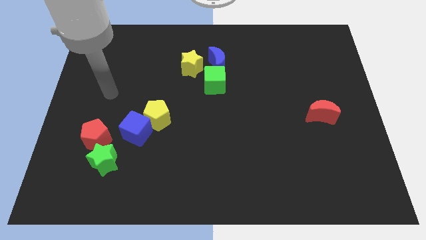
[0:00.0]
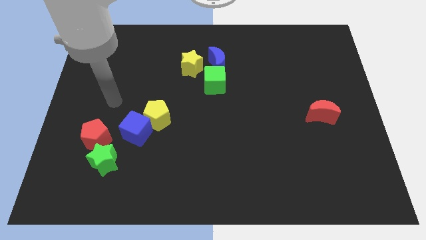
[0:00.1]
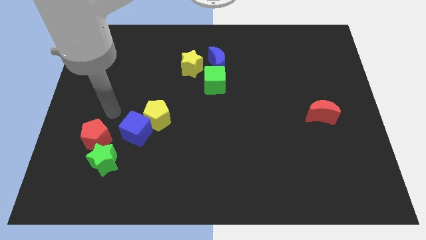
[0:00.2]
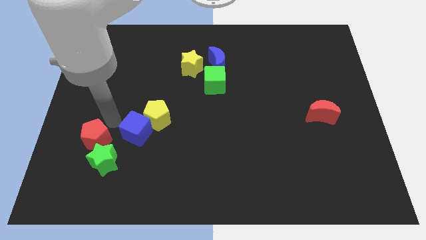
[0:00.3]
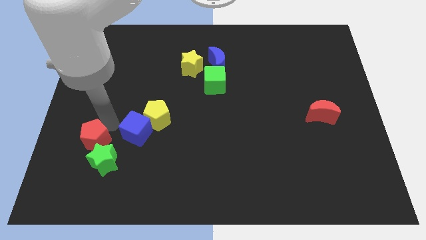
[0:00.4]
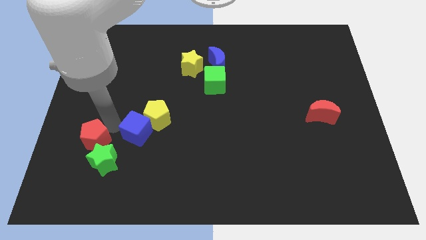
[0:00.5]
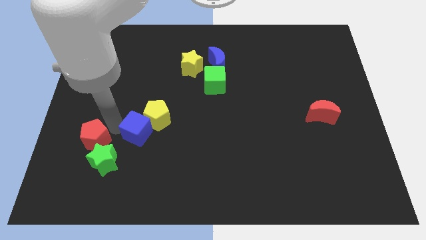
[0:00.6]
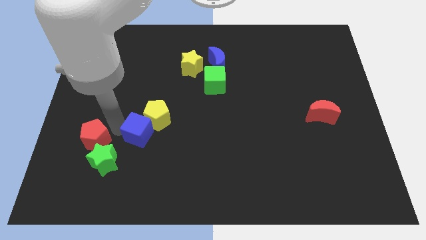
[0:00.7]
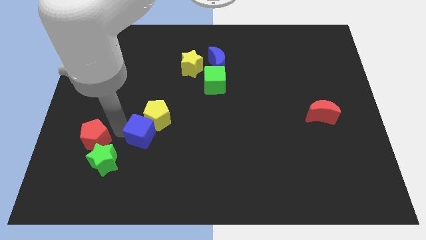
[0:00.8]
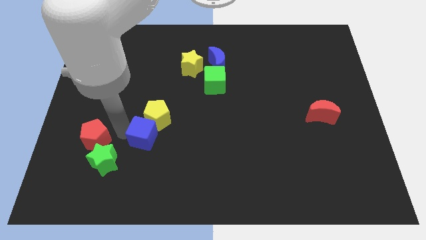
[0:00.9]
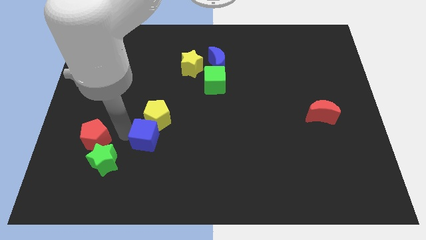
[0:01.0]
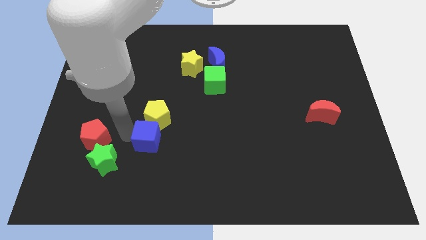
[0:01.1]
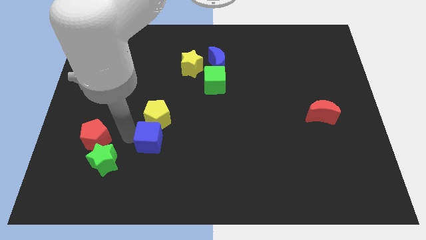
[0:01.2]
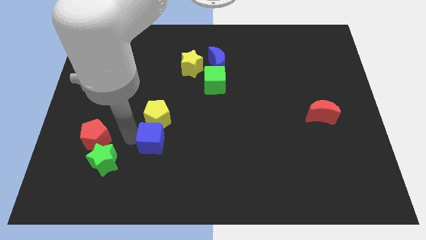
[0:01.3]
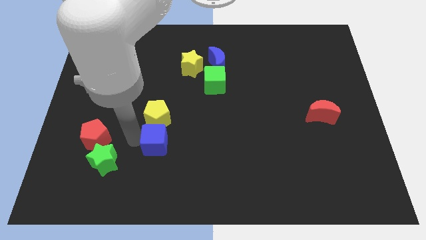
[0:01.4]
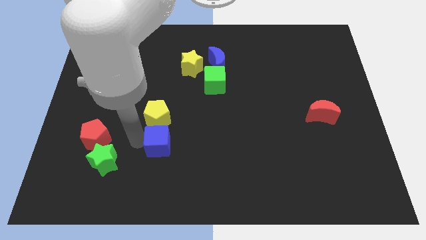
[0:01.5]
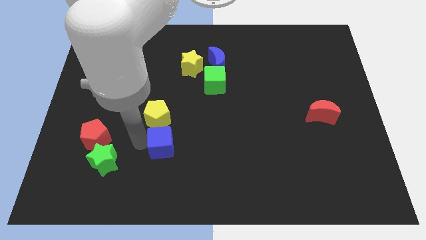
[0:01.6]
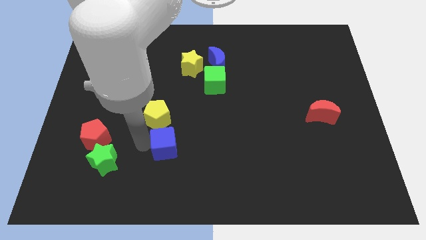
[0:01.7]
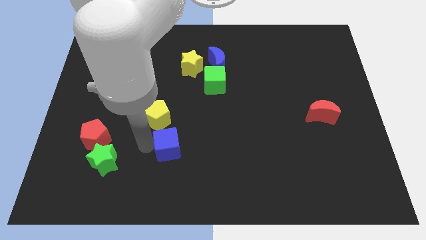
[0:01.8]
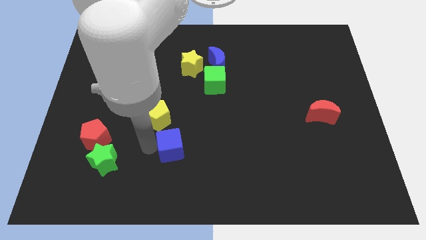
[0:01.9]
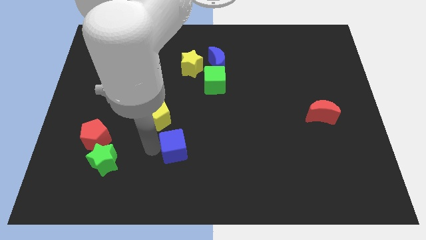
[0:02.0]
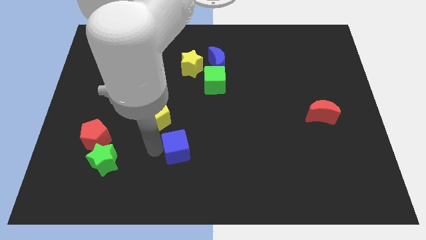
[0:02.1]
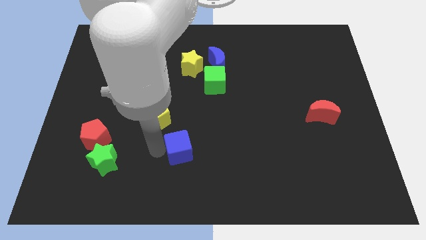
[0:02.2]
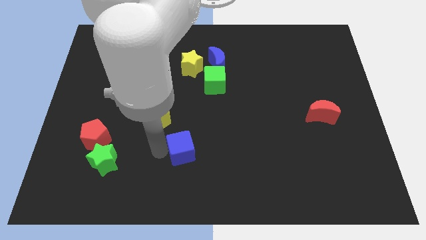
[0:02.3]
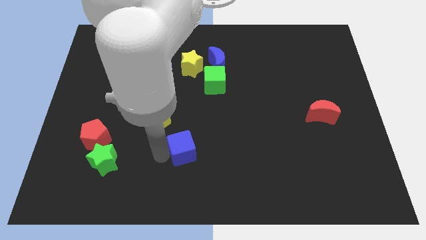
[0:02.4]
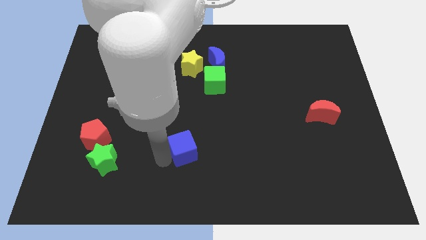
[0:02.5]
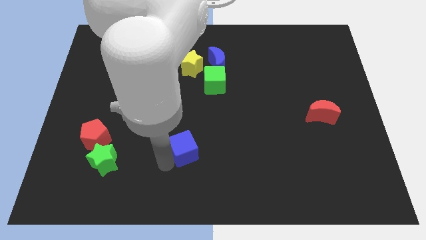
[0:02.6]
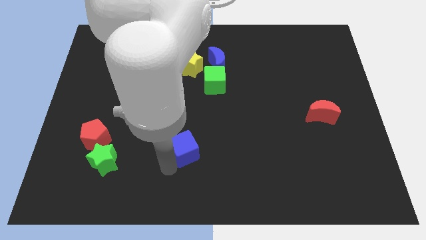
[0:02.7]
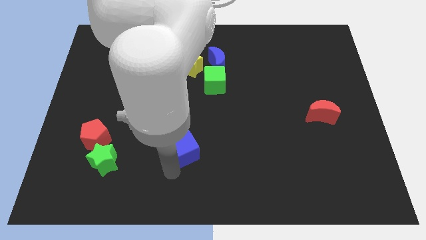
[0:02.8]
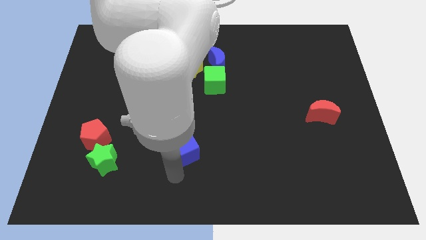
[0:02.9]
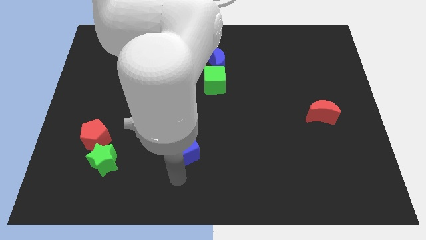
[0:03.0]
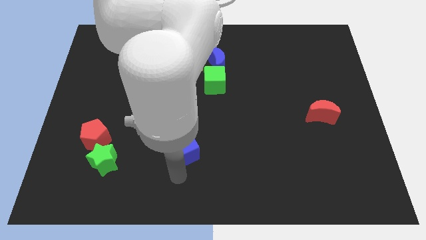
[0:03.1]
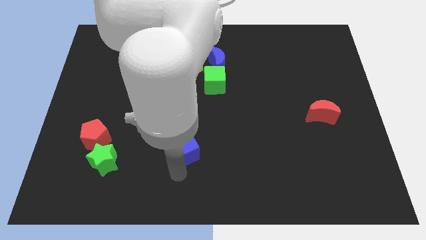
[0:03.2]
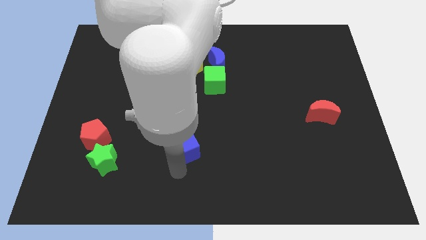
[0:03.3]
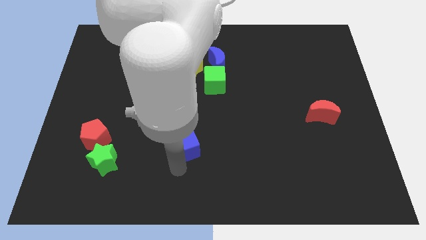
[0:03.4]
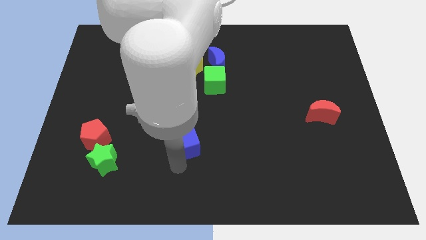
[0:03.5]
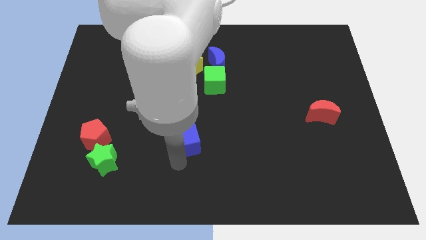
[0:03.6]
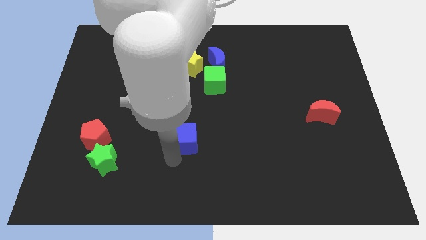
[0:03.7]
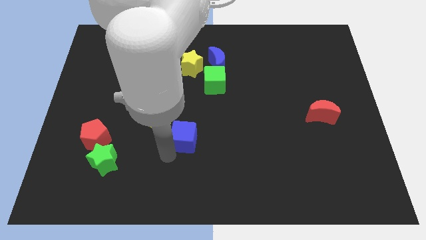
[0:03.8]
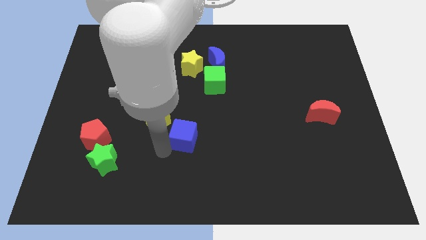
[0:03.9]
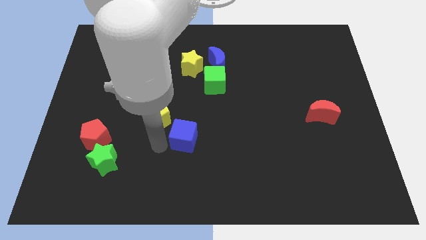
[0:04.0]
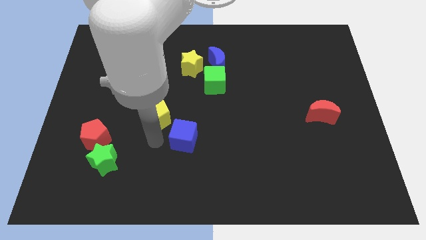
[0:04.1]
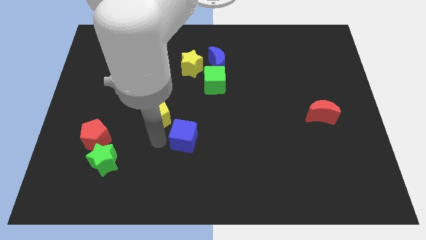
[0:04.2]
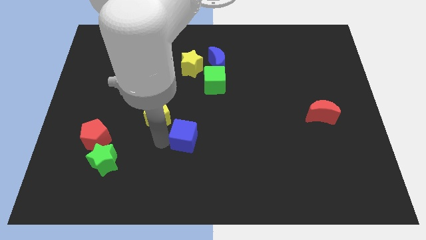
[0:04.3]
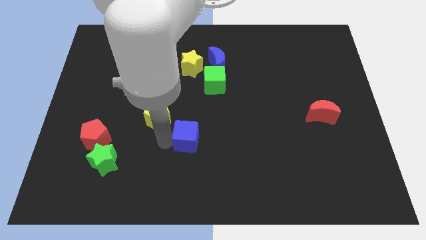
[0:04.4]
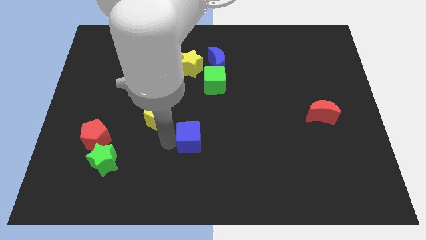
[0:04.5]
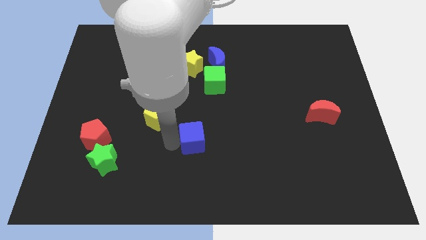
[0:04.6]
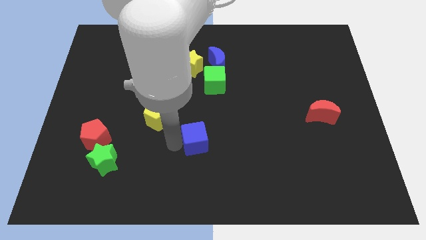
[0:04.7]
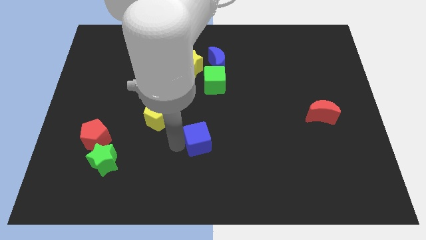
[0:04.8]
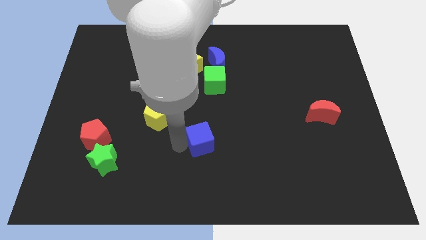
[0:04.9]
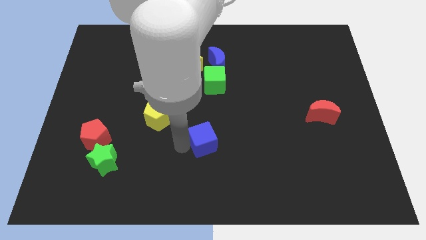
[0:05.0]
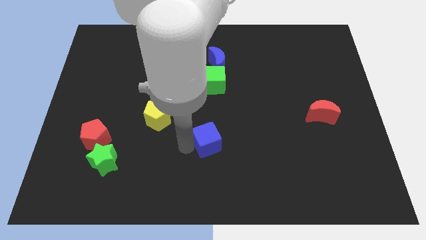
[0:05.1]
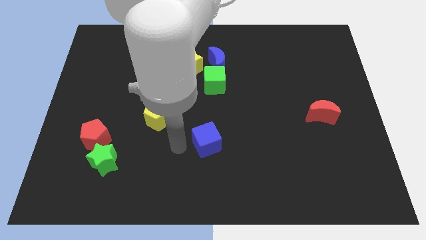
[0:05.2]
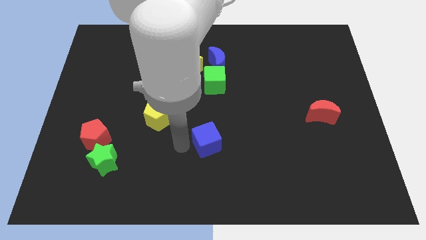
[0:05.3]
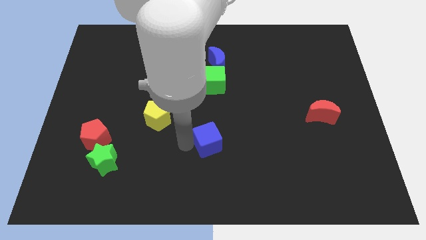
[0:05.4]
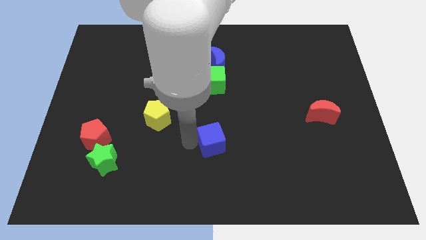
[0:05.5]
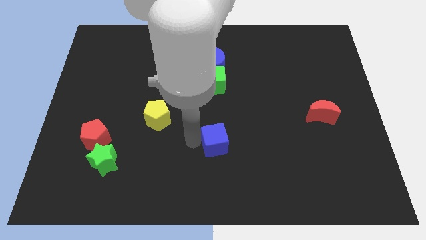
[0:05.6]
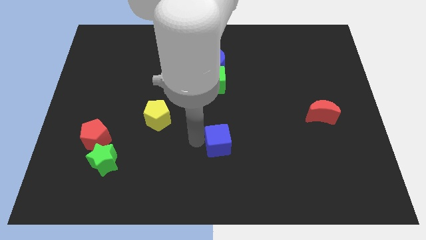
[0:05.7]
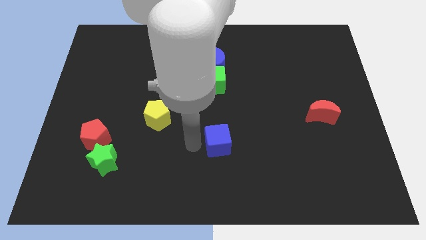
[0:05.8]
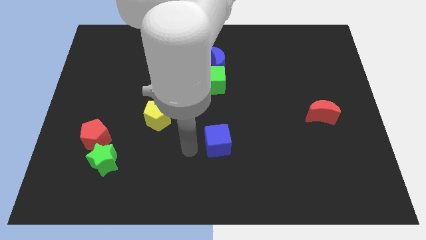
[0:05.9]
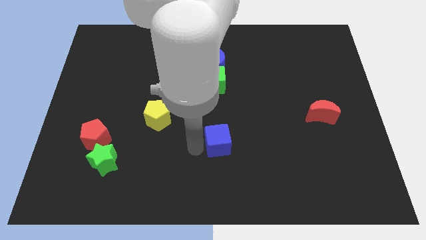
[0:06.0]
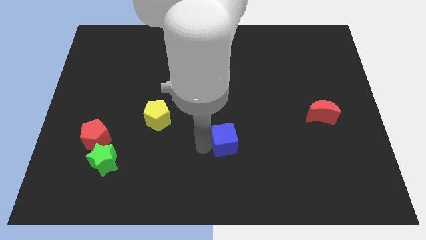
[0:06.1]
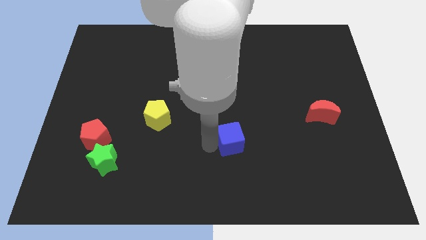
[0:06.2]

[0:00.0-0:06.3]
slide the blue cube right

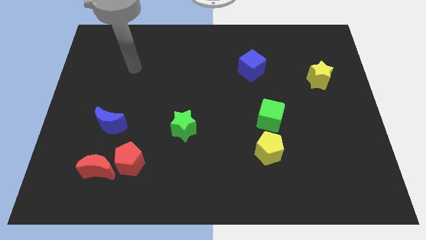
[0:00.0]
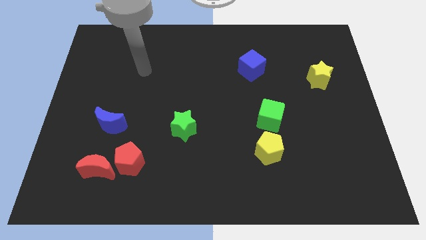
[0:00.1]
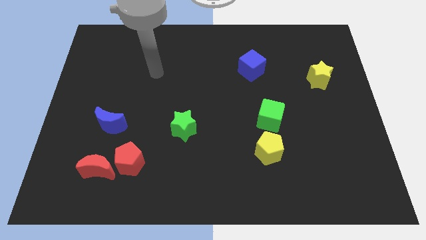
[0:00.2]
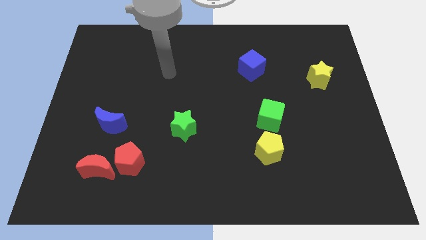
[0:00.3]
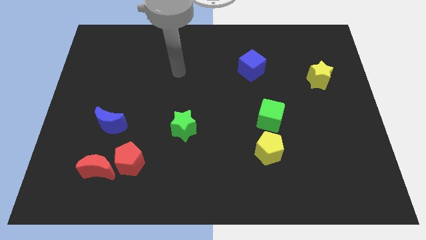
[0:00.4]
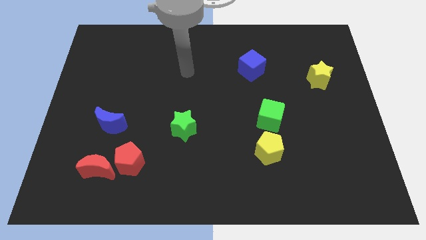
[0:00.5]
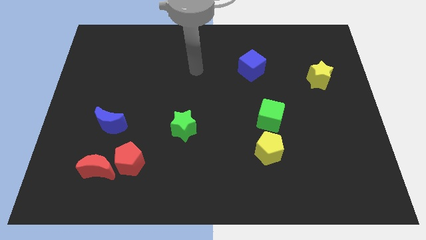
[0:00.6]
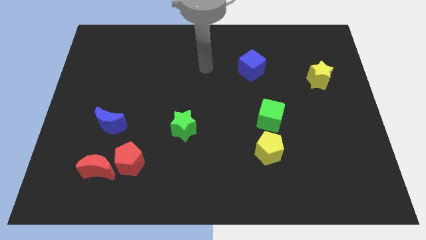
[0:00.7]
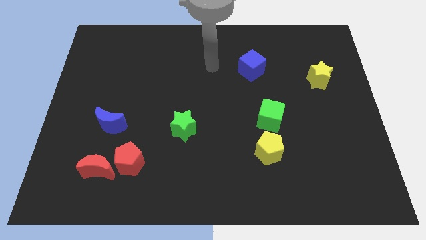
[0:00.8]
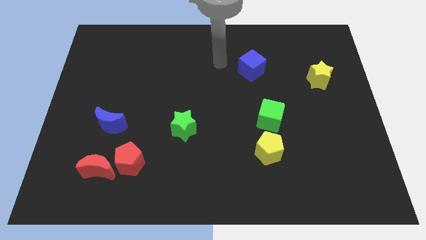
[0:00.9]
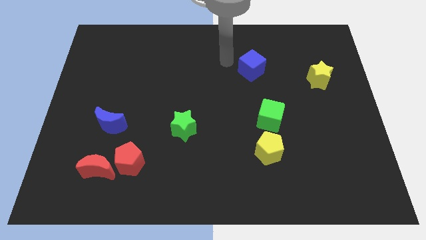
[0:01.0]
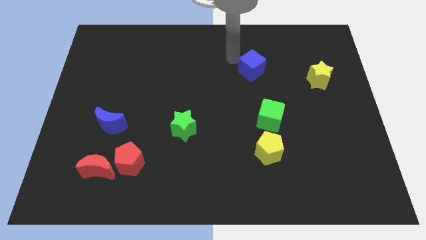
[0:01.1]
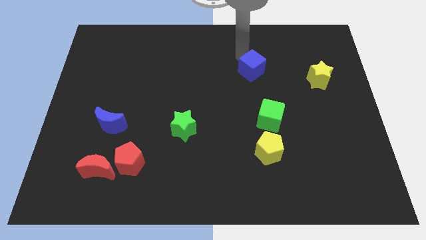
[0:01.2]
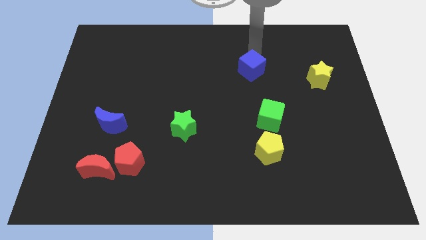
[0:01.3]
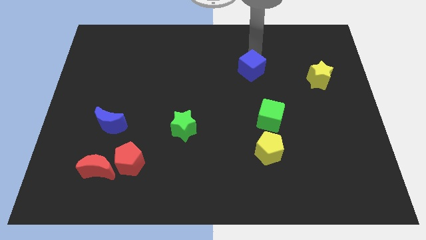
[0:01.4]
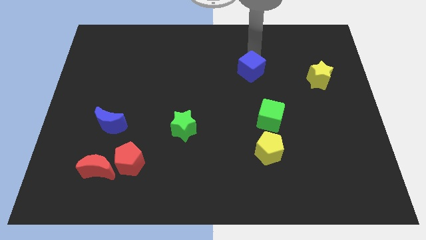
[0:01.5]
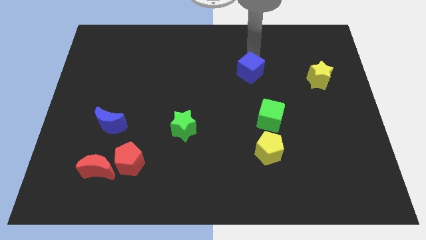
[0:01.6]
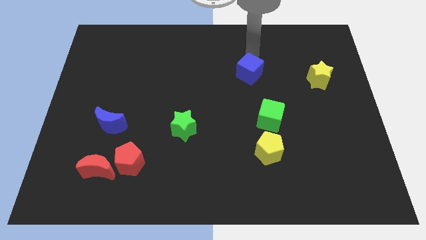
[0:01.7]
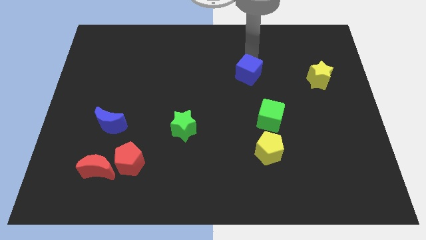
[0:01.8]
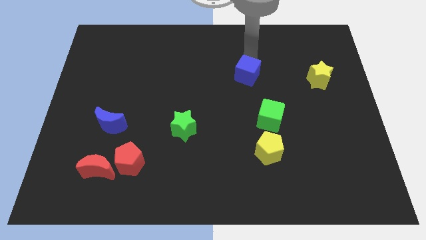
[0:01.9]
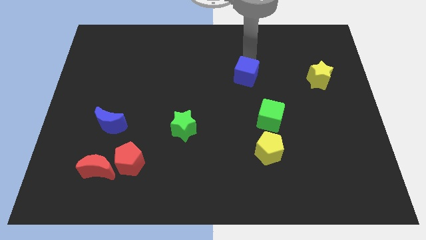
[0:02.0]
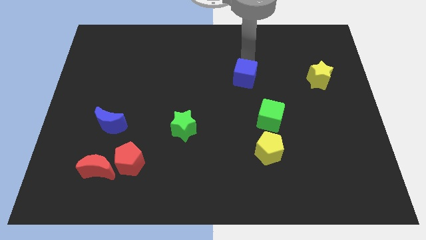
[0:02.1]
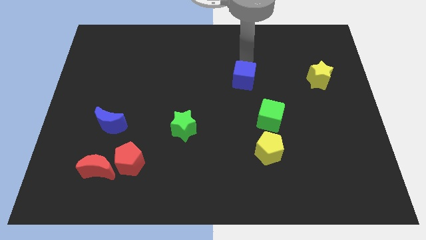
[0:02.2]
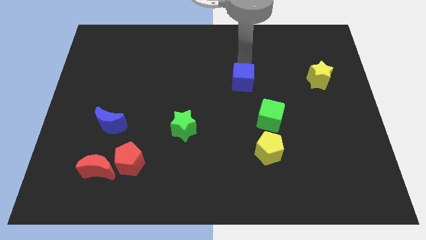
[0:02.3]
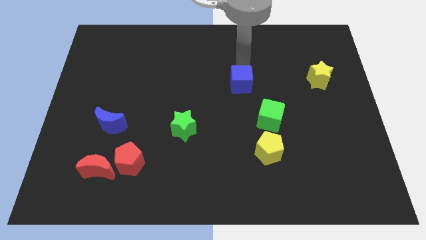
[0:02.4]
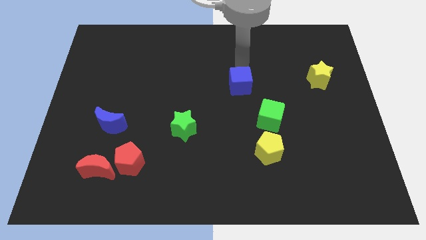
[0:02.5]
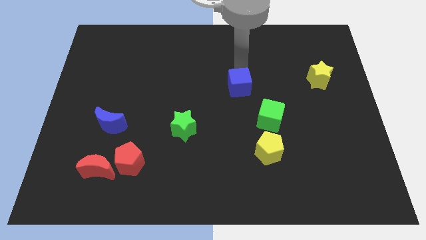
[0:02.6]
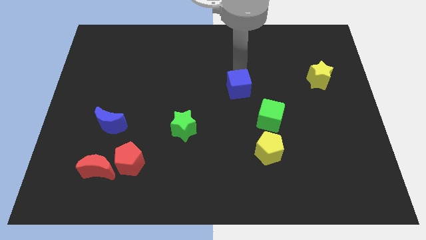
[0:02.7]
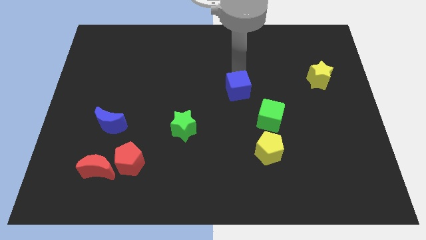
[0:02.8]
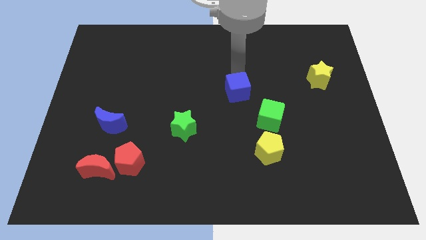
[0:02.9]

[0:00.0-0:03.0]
slide the blue cube down slightly
